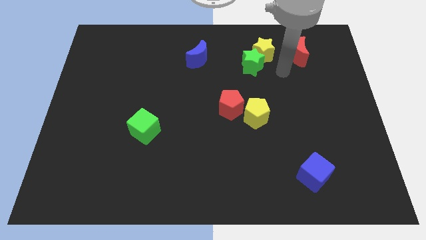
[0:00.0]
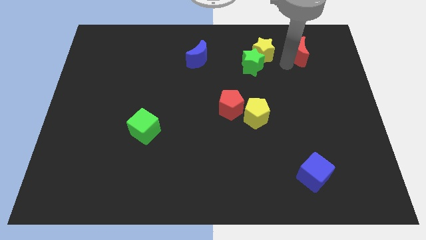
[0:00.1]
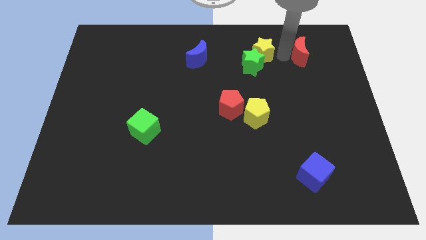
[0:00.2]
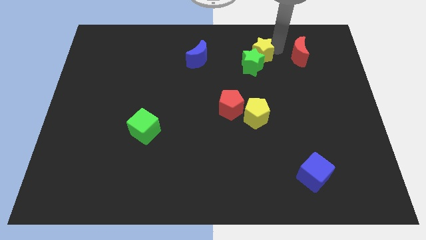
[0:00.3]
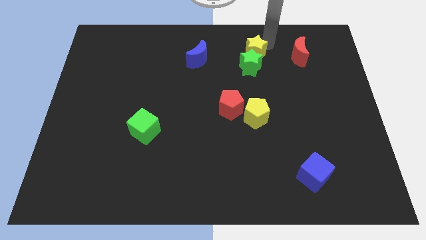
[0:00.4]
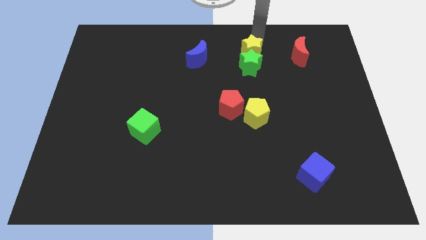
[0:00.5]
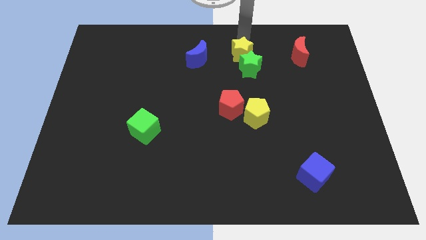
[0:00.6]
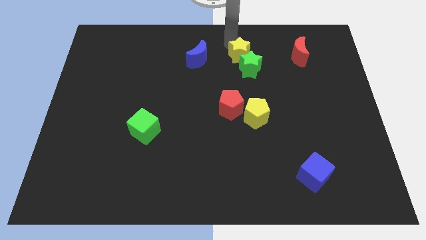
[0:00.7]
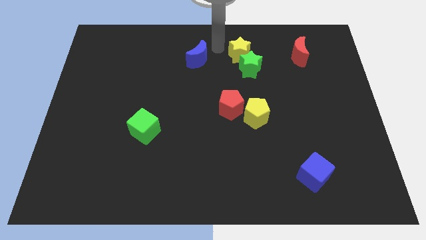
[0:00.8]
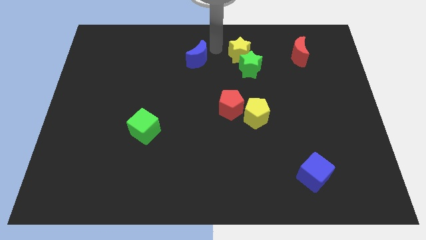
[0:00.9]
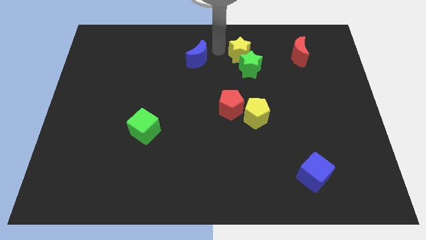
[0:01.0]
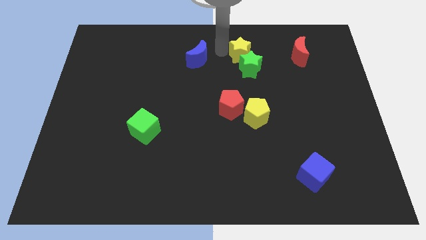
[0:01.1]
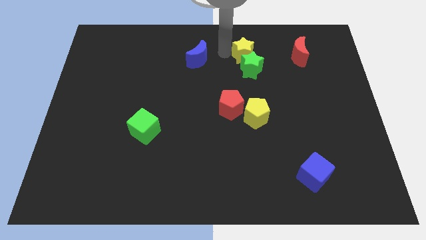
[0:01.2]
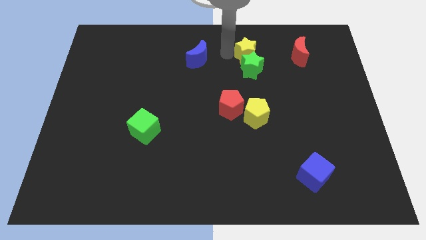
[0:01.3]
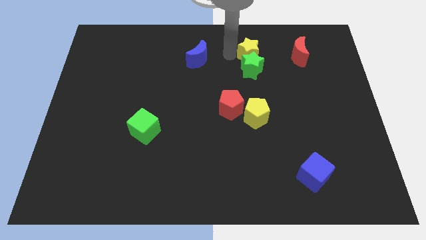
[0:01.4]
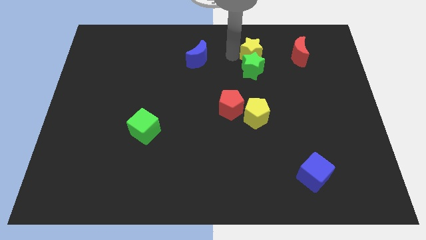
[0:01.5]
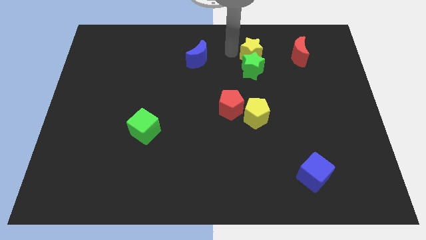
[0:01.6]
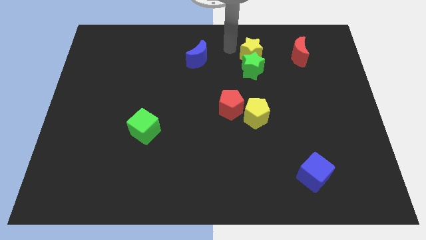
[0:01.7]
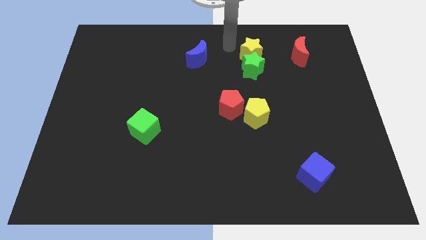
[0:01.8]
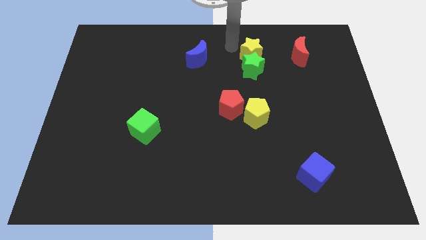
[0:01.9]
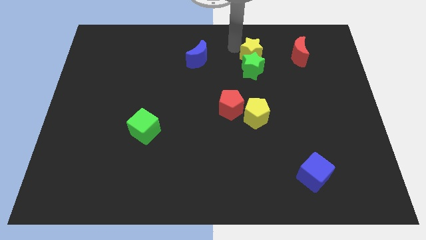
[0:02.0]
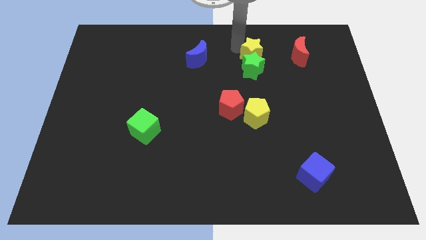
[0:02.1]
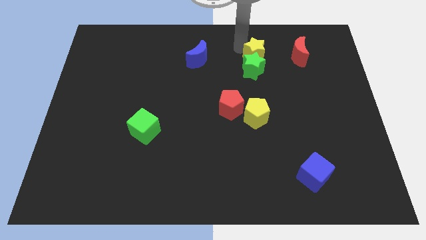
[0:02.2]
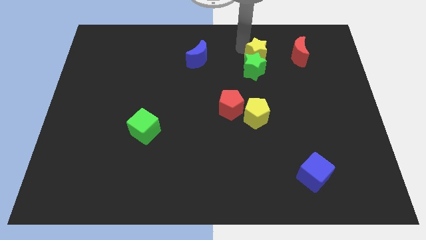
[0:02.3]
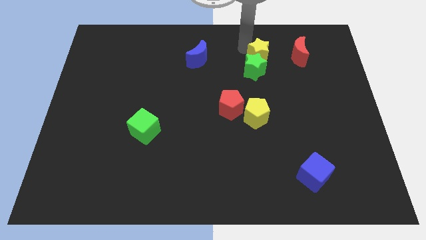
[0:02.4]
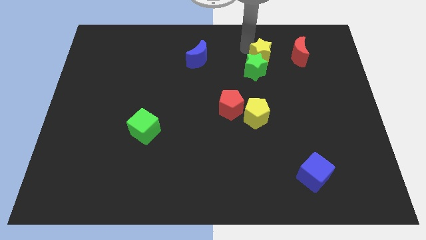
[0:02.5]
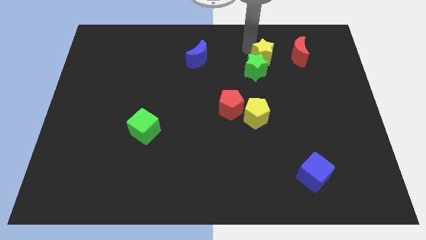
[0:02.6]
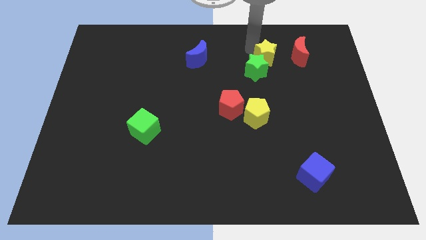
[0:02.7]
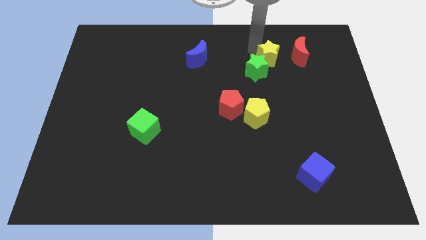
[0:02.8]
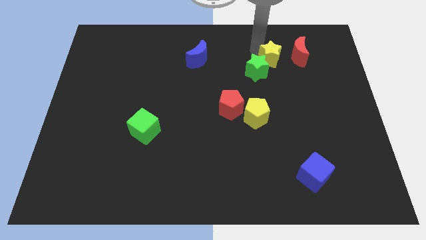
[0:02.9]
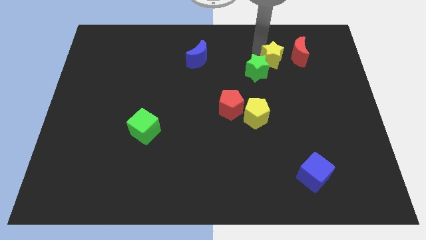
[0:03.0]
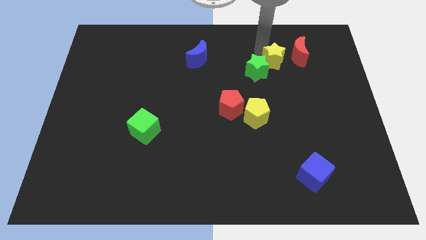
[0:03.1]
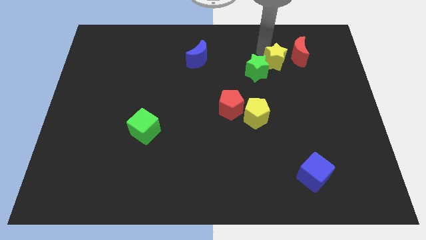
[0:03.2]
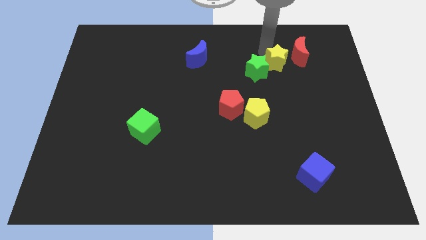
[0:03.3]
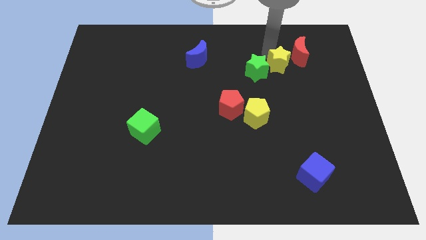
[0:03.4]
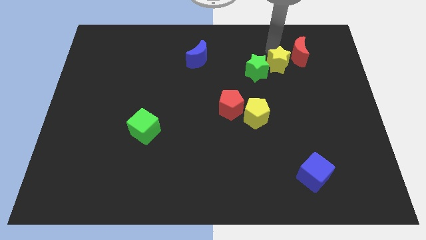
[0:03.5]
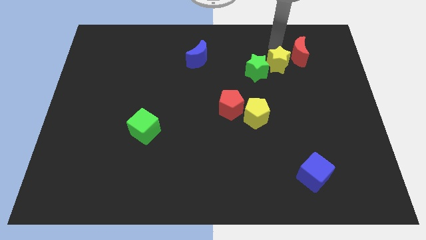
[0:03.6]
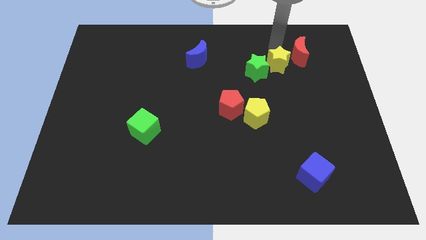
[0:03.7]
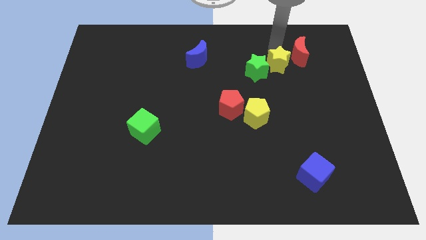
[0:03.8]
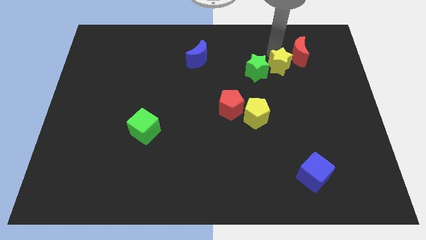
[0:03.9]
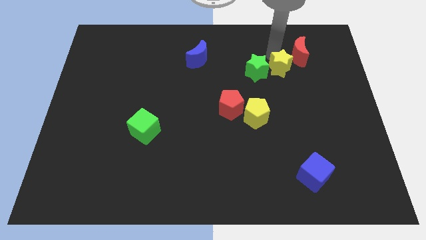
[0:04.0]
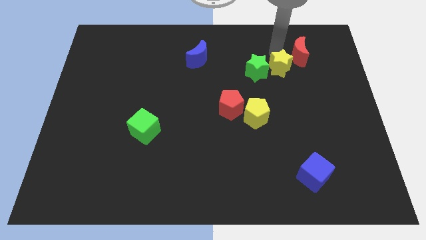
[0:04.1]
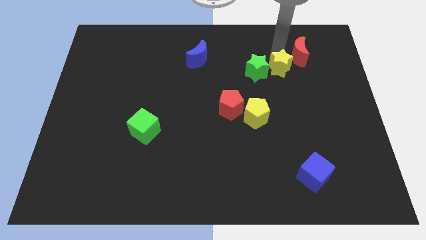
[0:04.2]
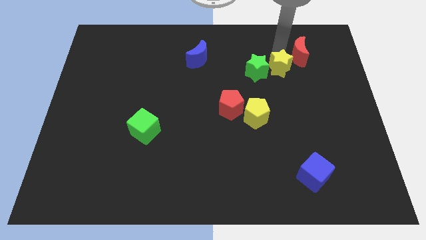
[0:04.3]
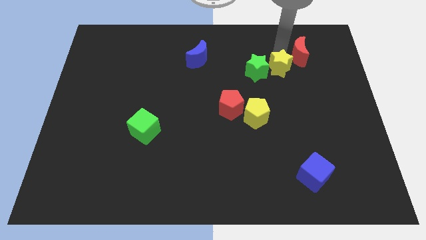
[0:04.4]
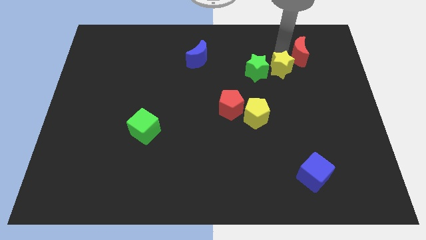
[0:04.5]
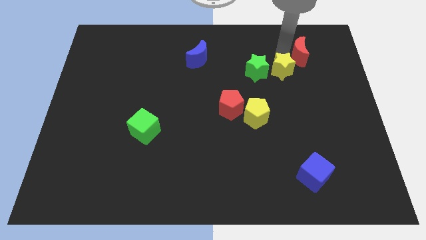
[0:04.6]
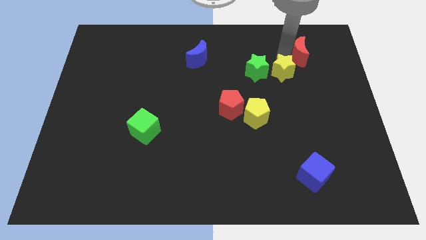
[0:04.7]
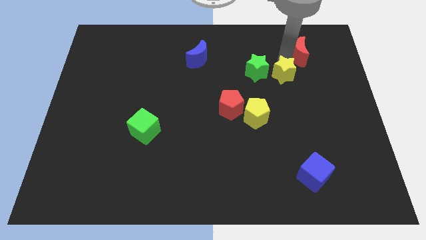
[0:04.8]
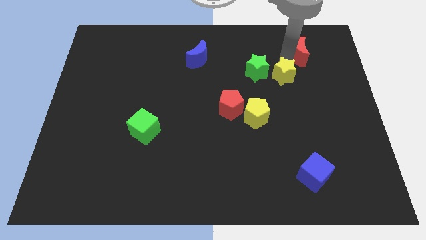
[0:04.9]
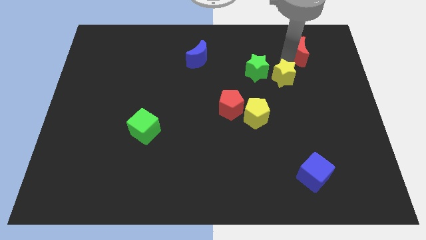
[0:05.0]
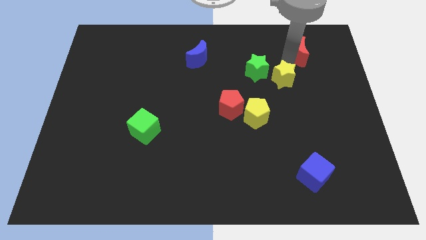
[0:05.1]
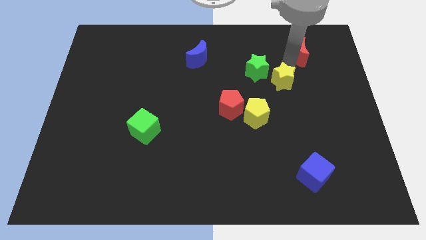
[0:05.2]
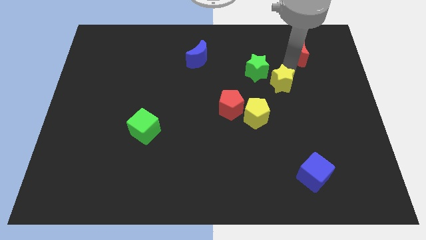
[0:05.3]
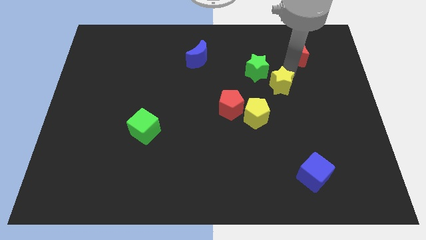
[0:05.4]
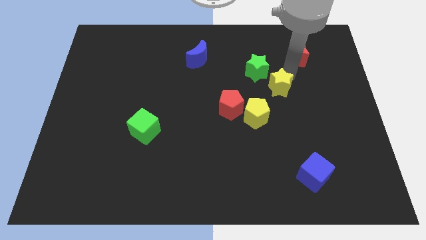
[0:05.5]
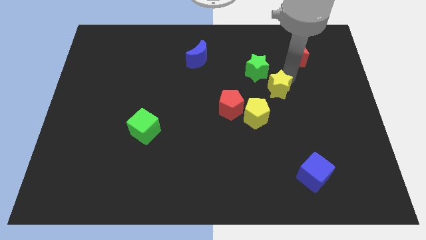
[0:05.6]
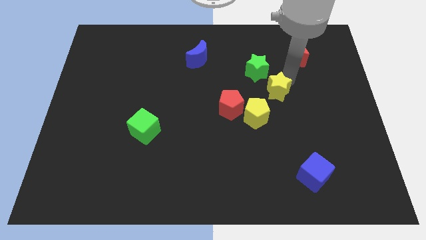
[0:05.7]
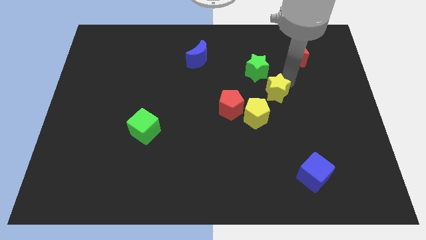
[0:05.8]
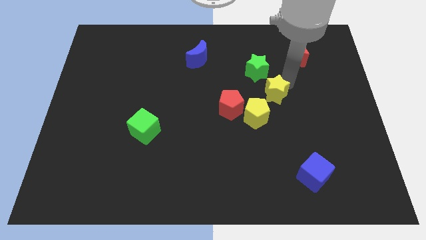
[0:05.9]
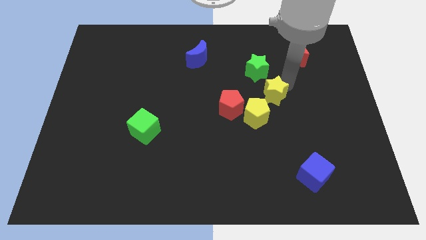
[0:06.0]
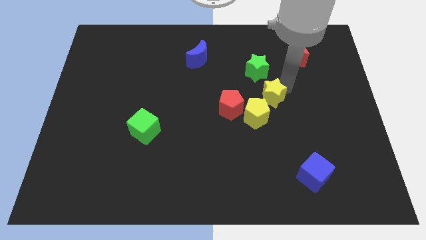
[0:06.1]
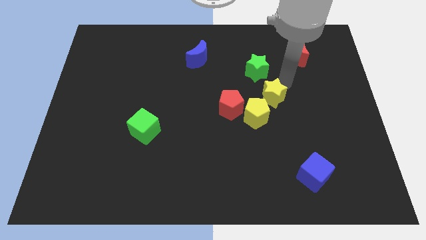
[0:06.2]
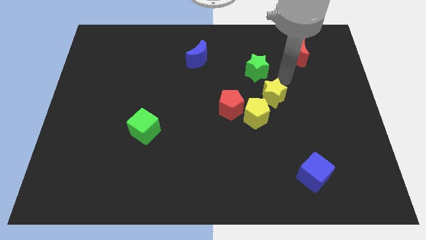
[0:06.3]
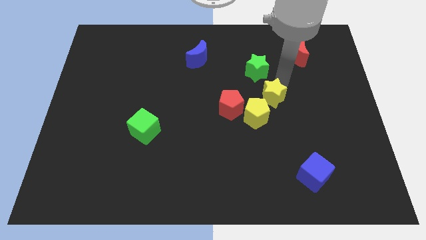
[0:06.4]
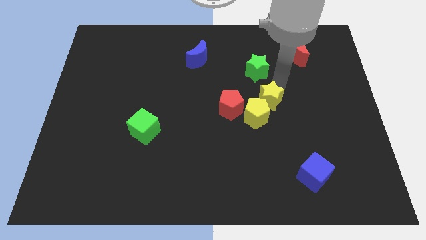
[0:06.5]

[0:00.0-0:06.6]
move the yellow star to the yellow pentagon
